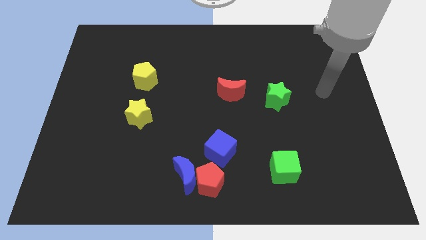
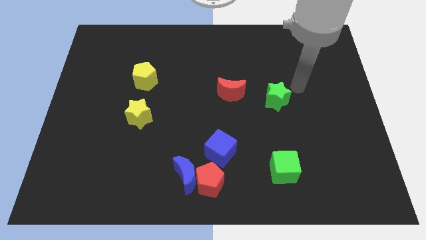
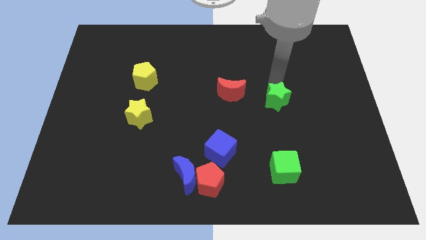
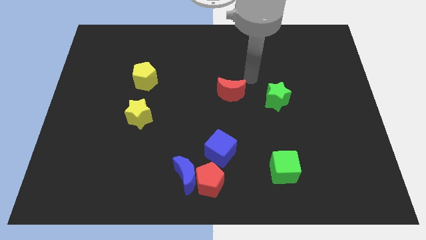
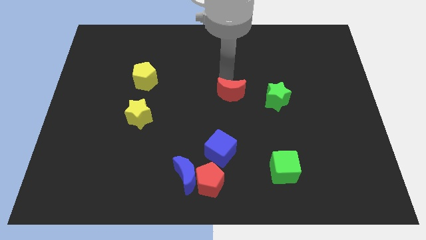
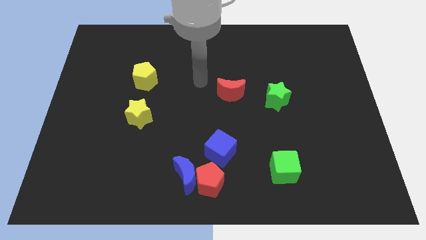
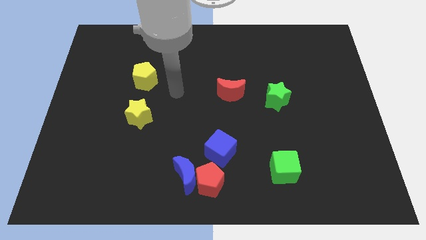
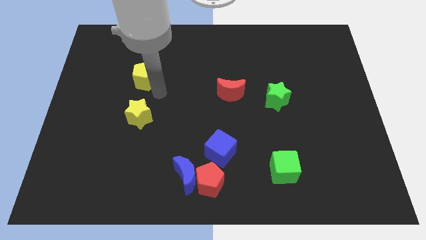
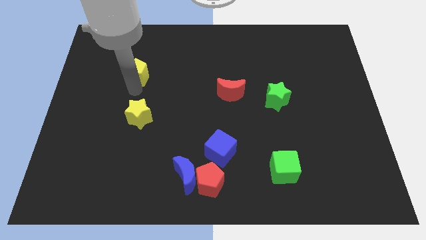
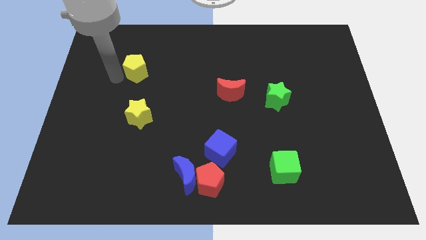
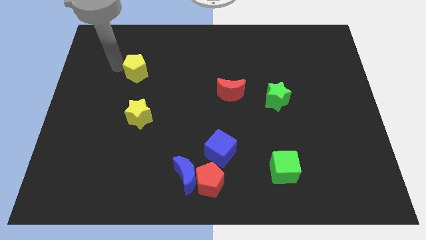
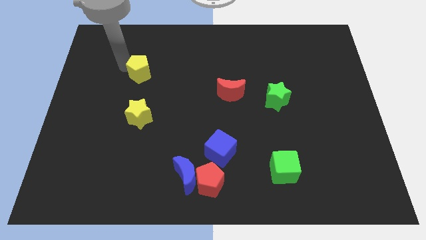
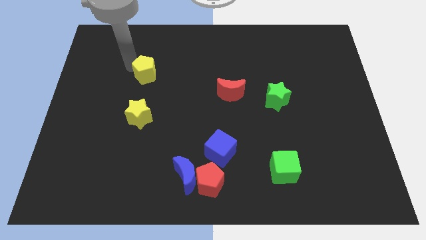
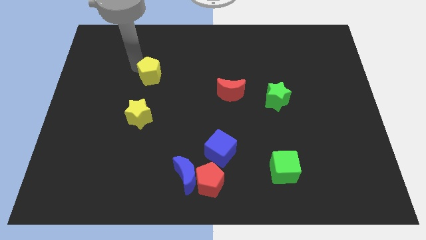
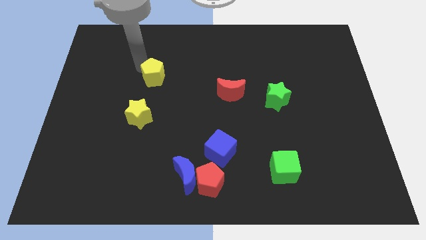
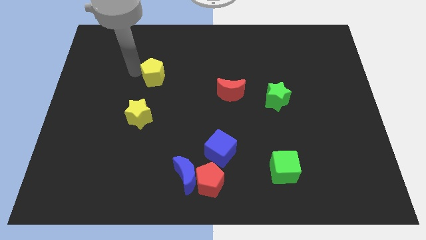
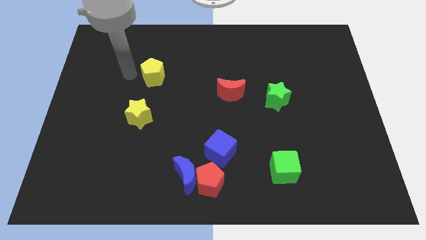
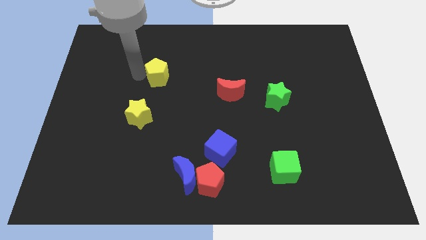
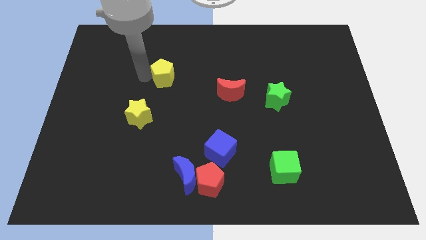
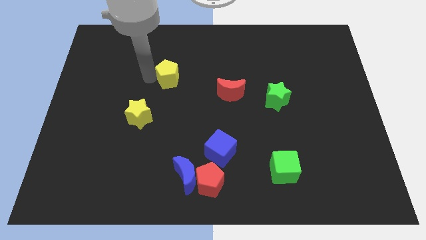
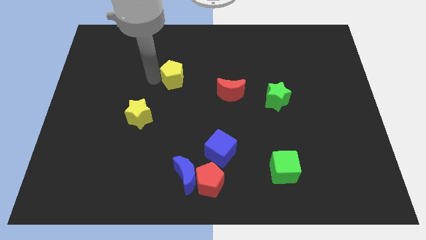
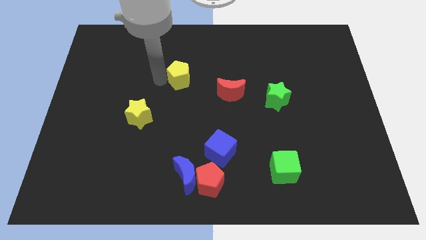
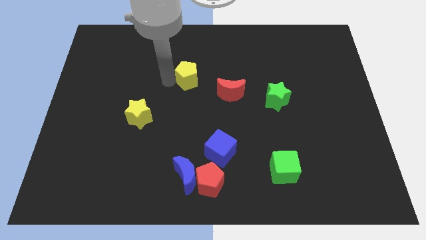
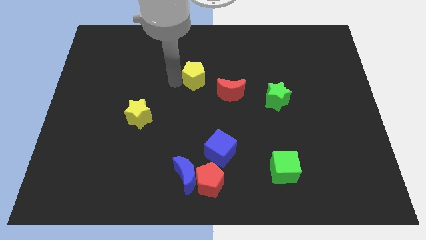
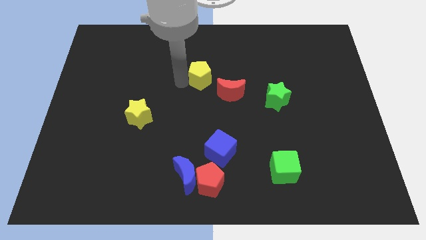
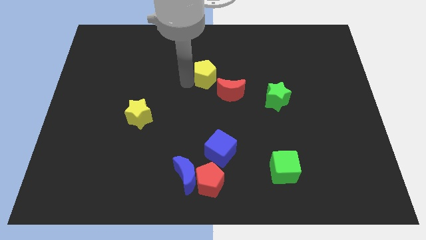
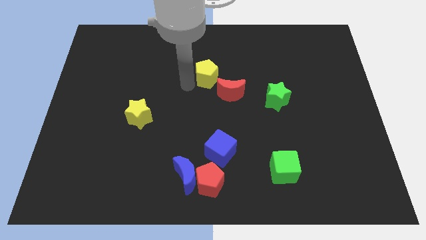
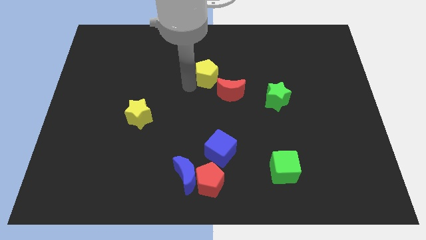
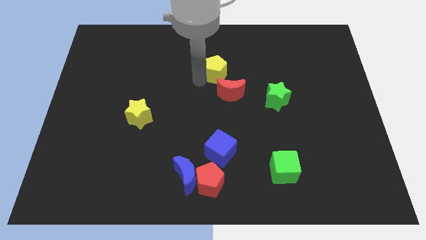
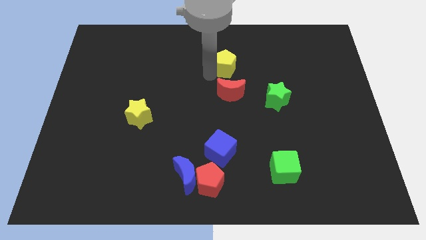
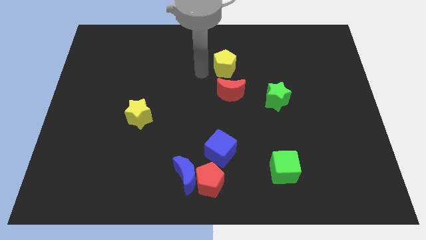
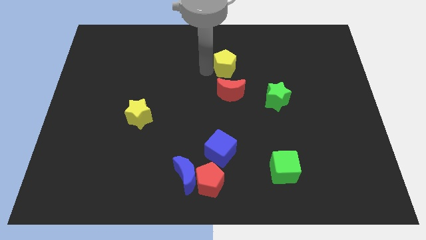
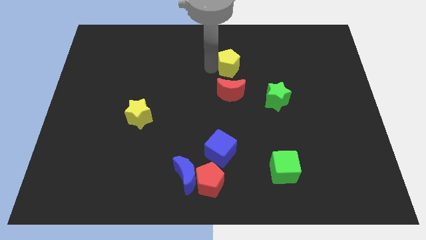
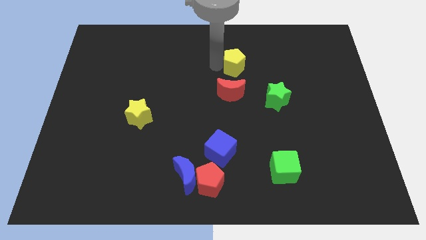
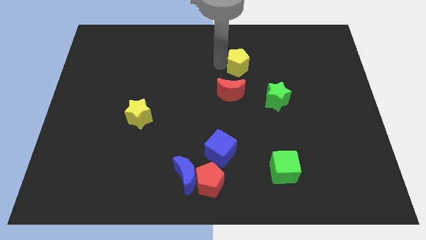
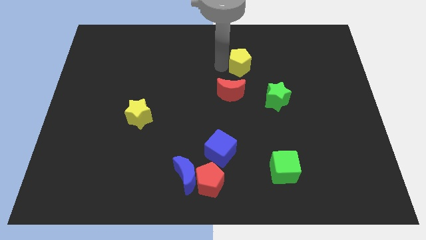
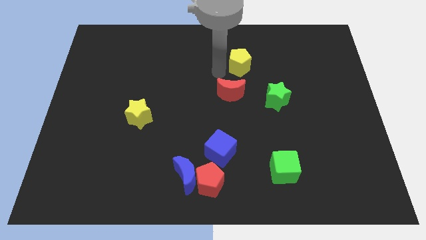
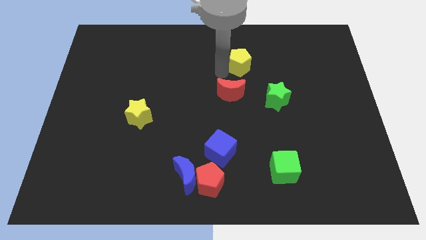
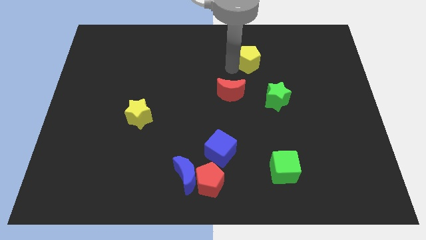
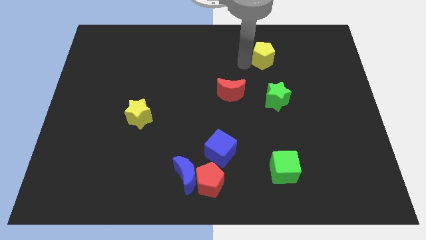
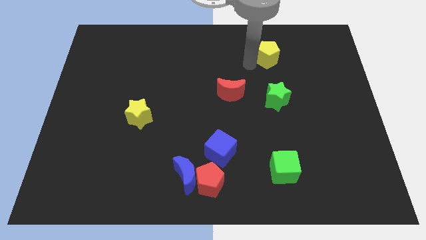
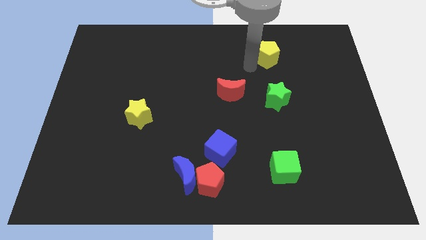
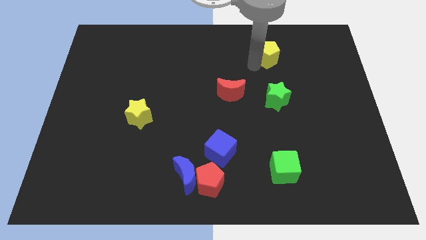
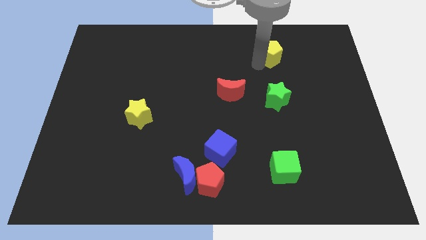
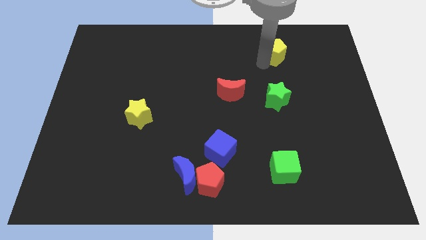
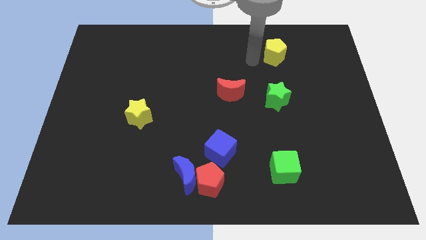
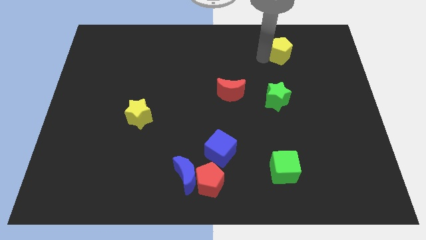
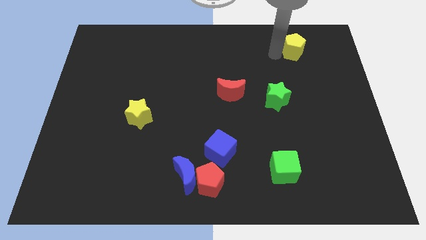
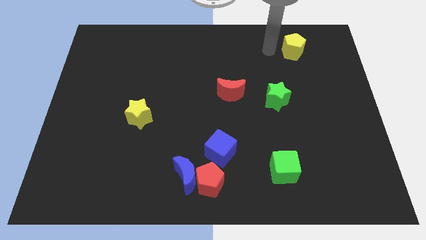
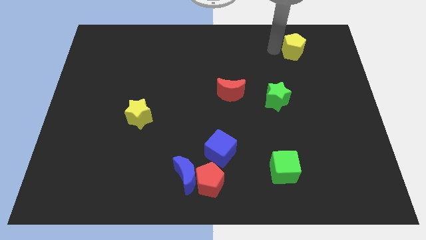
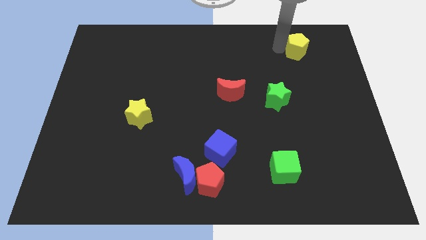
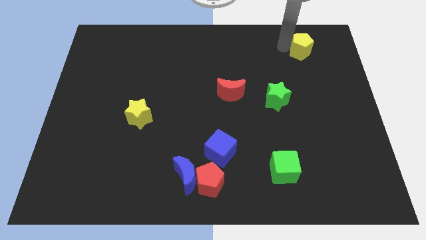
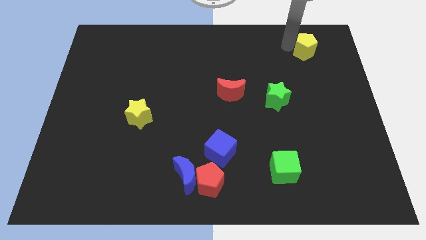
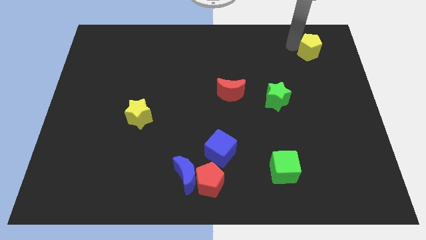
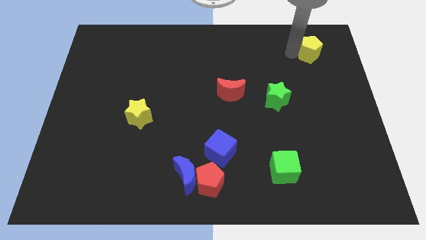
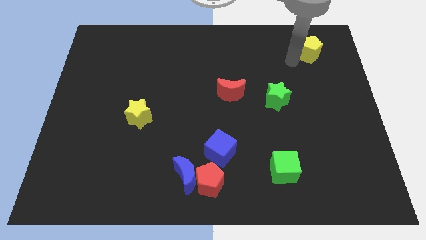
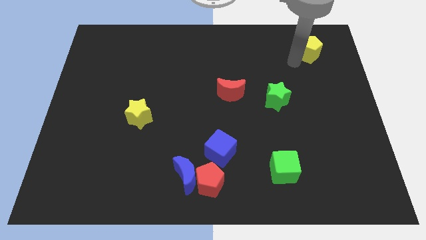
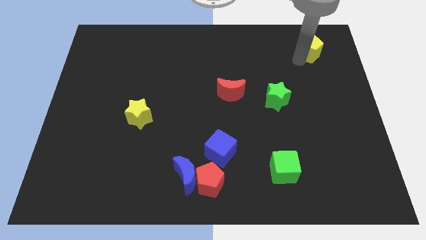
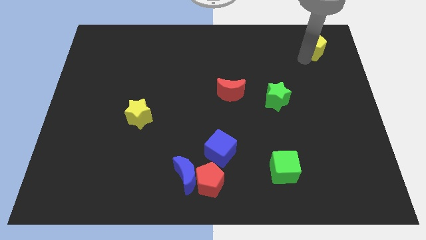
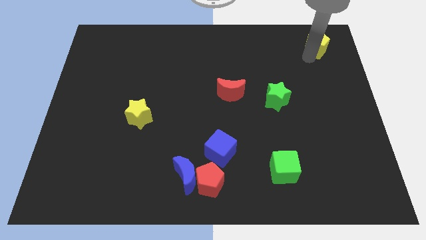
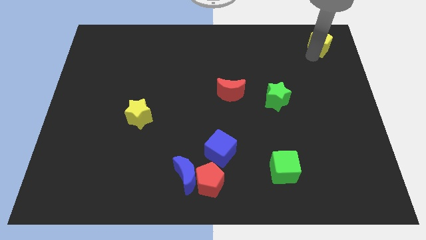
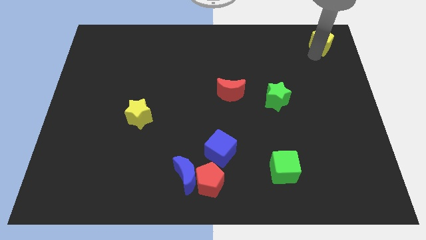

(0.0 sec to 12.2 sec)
put the yellow pentagon to the upper right corner
